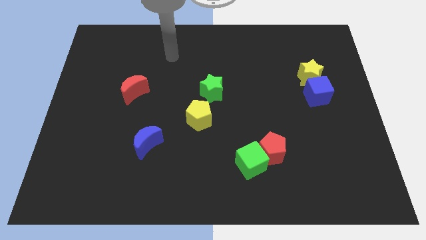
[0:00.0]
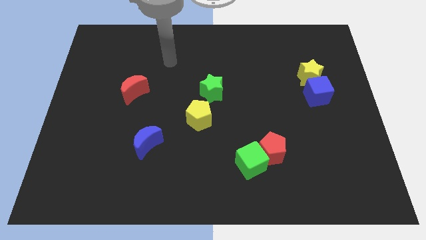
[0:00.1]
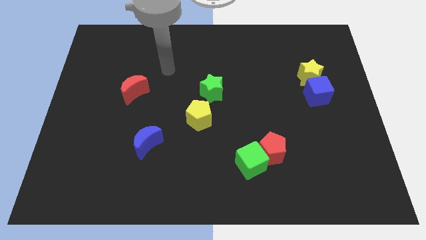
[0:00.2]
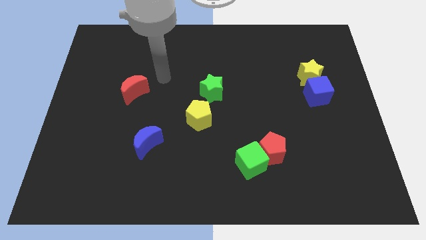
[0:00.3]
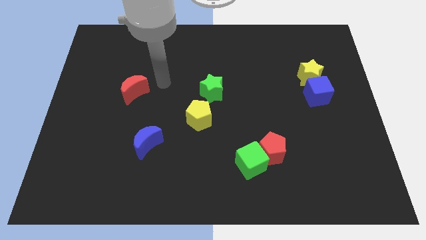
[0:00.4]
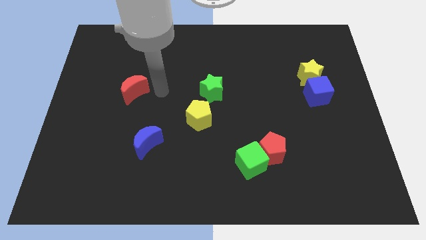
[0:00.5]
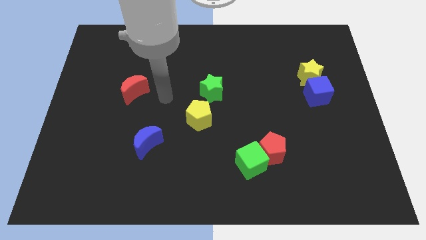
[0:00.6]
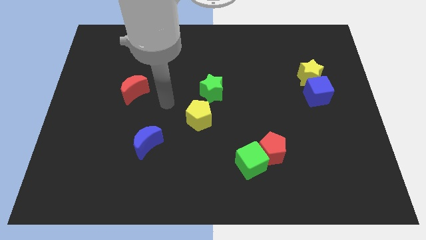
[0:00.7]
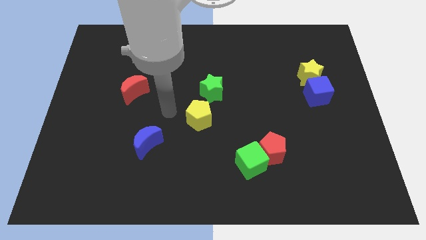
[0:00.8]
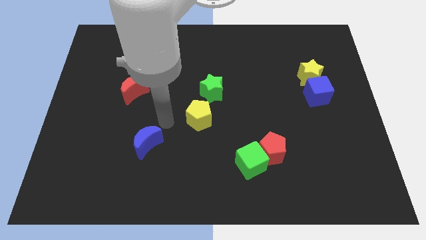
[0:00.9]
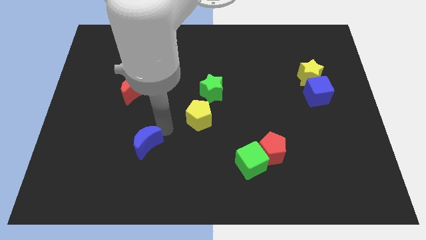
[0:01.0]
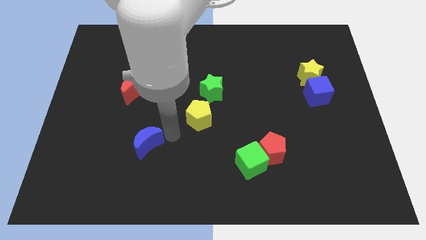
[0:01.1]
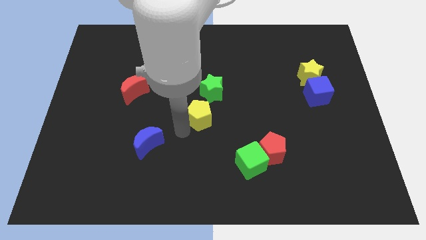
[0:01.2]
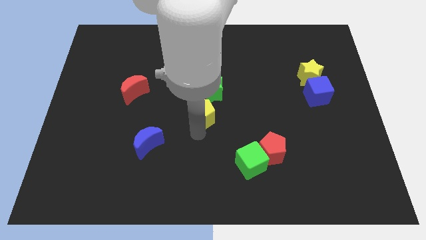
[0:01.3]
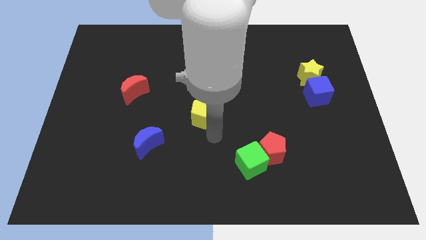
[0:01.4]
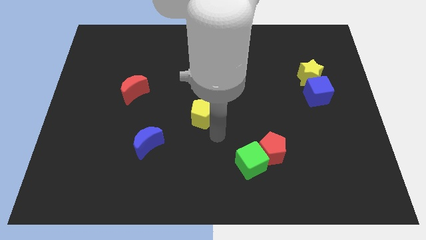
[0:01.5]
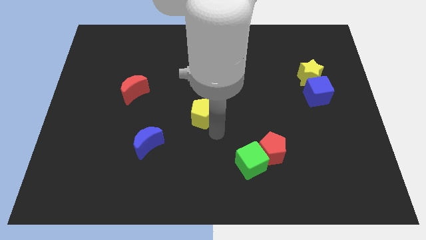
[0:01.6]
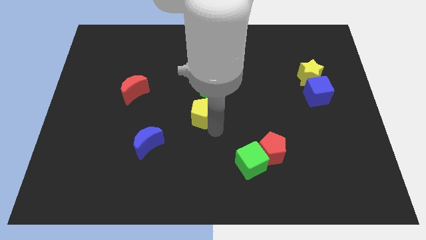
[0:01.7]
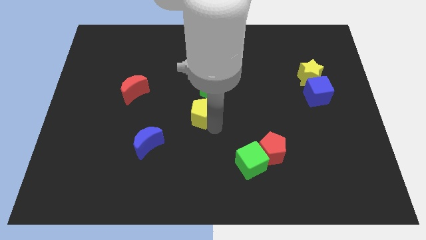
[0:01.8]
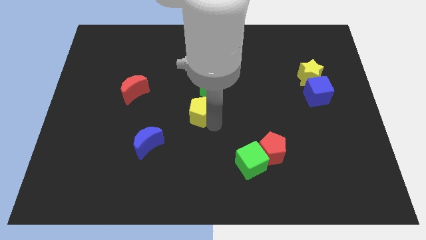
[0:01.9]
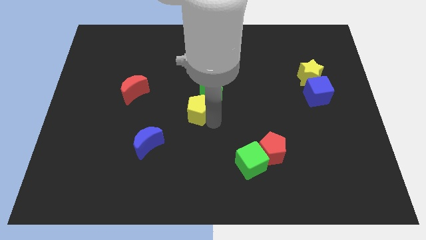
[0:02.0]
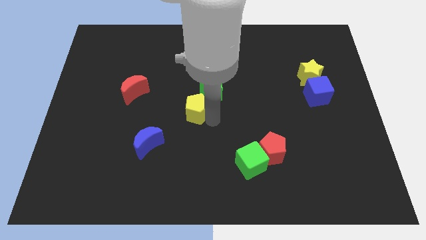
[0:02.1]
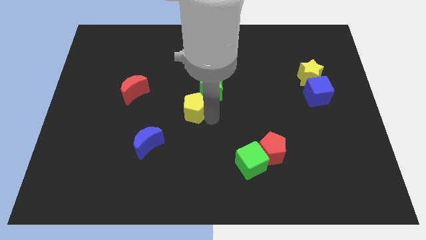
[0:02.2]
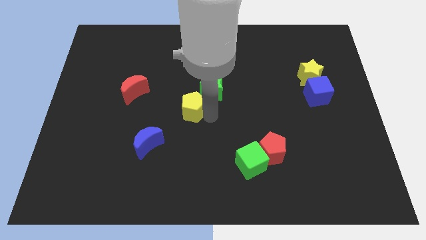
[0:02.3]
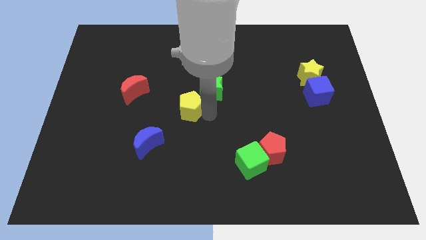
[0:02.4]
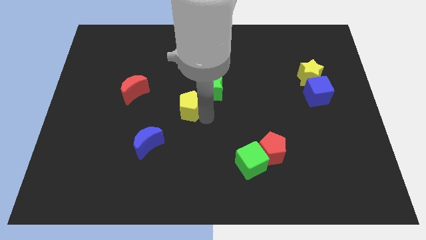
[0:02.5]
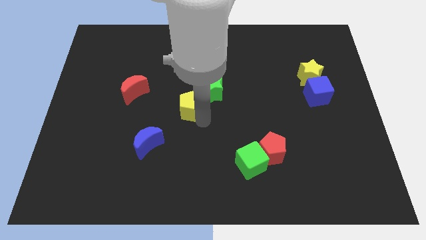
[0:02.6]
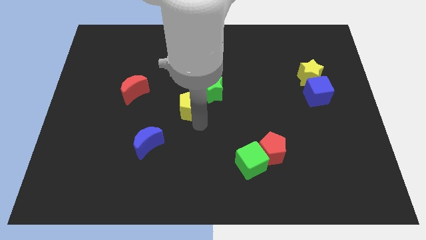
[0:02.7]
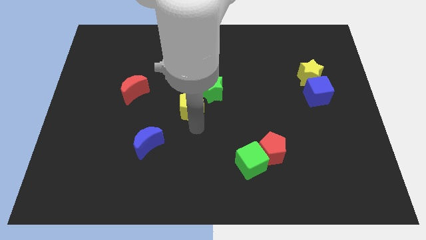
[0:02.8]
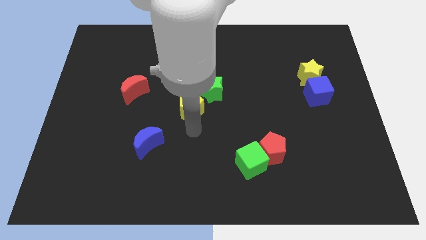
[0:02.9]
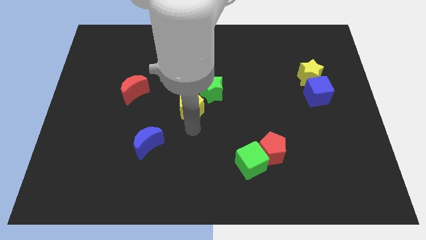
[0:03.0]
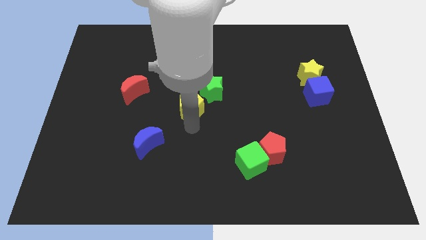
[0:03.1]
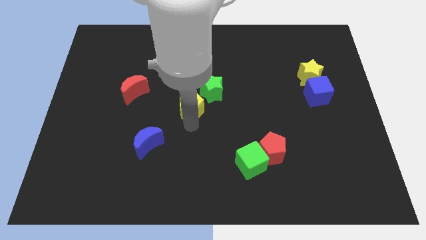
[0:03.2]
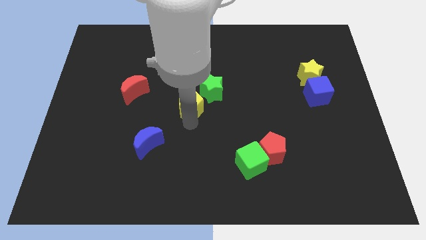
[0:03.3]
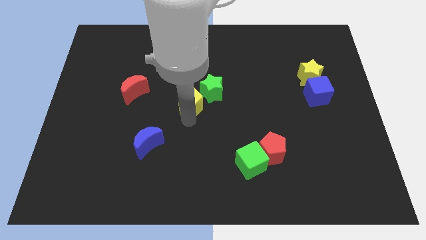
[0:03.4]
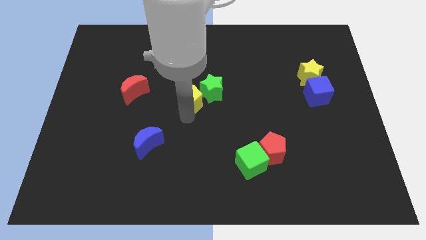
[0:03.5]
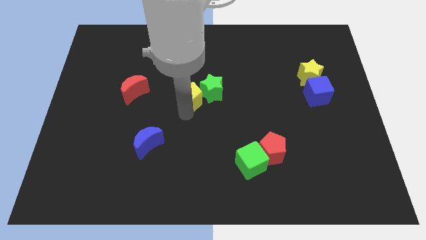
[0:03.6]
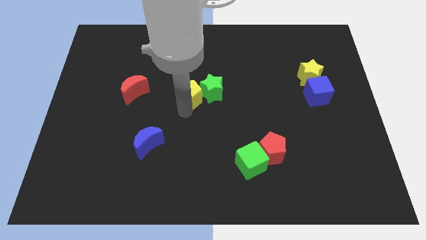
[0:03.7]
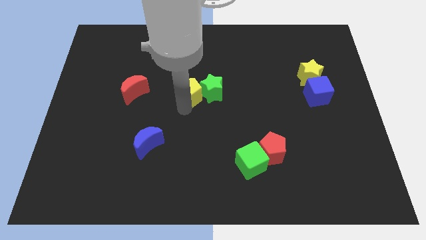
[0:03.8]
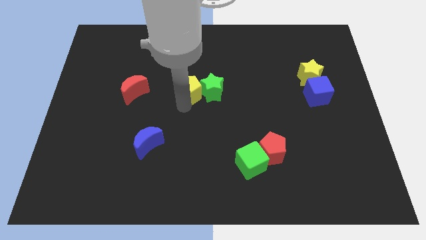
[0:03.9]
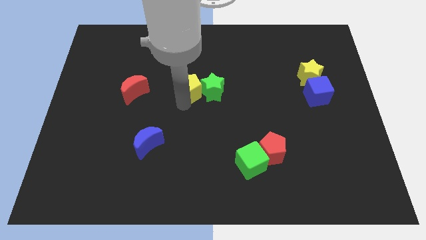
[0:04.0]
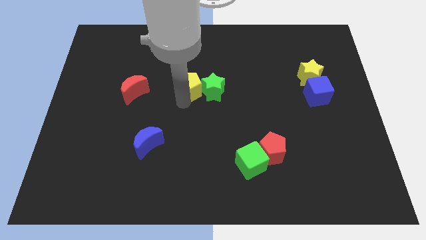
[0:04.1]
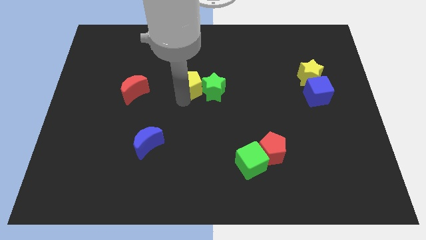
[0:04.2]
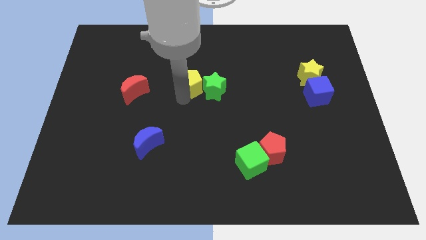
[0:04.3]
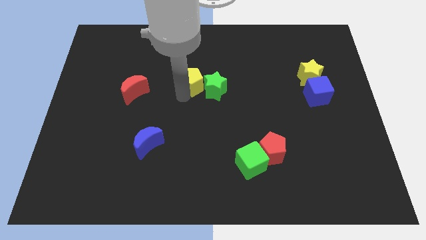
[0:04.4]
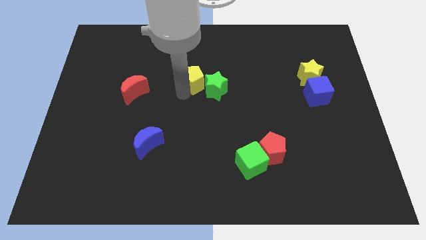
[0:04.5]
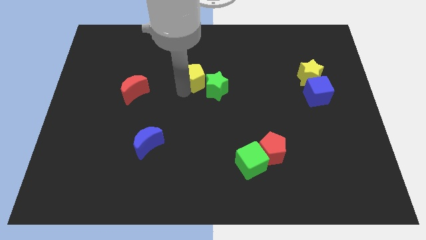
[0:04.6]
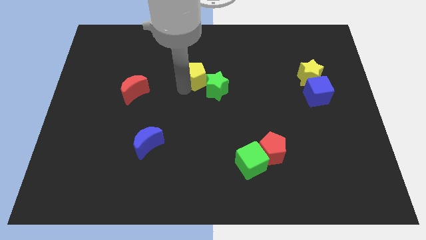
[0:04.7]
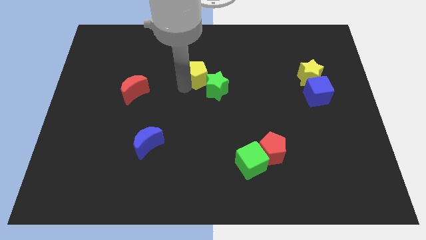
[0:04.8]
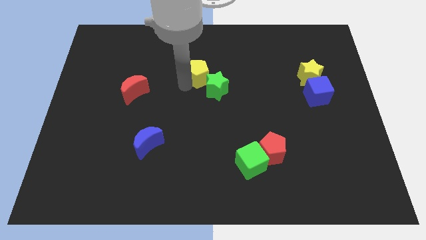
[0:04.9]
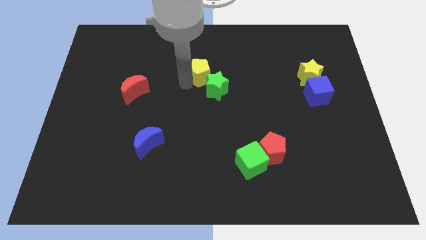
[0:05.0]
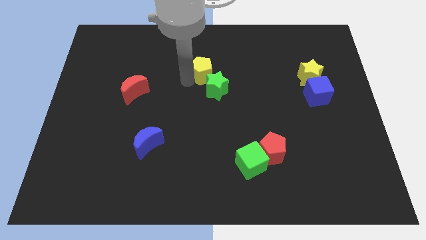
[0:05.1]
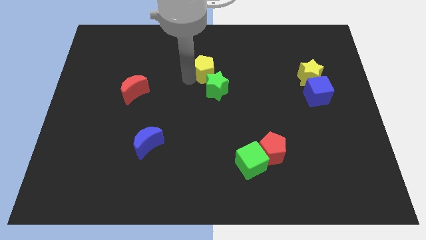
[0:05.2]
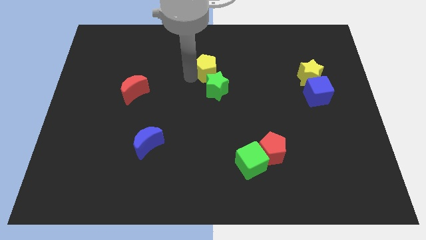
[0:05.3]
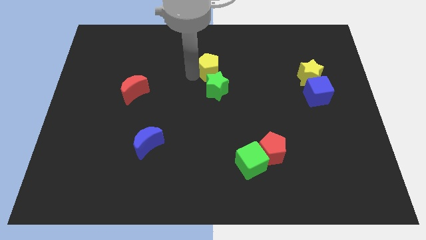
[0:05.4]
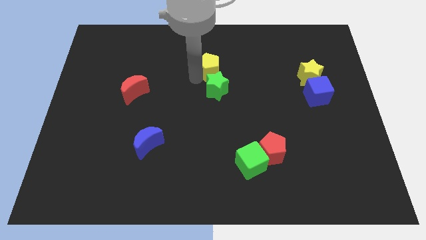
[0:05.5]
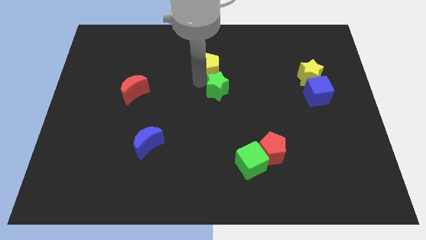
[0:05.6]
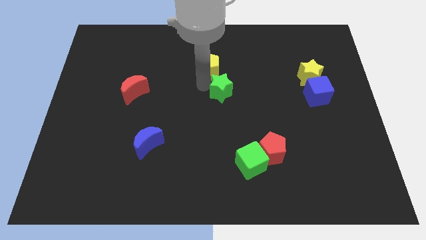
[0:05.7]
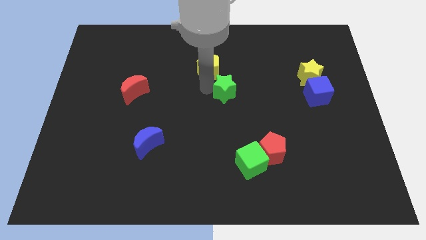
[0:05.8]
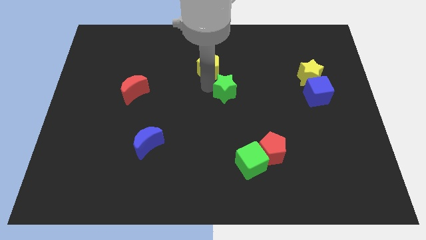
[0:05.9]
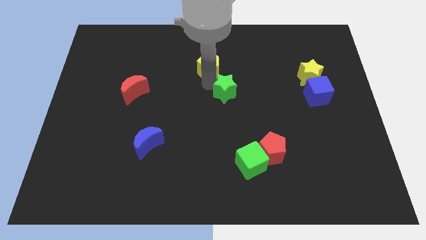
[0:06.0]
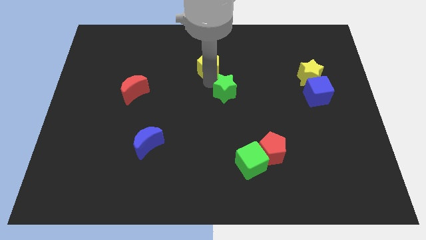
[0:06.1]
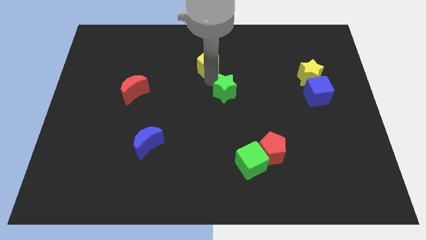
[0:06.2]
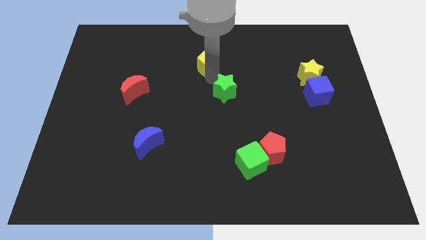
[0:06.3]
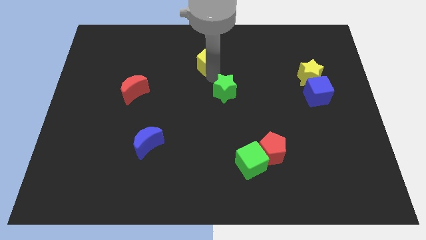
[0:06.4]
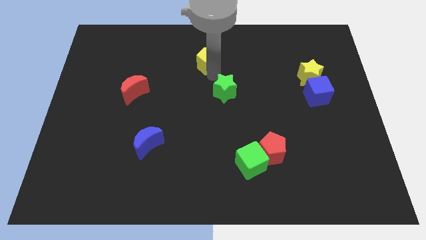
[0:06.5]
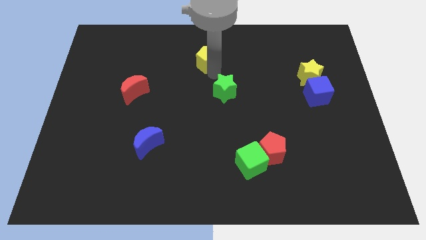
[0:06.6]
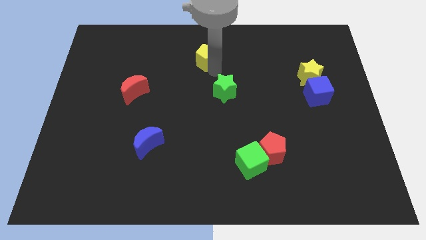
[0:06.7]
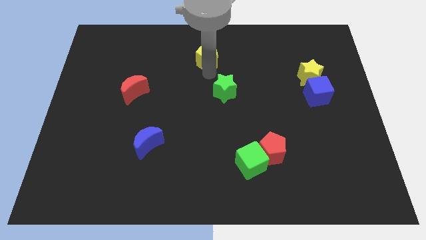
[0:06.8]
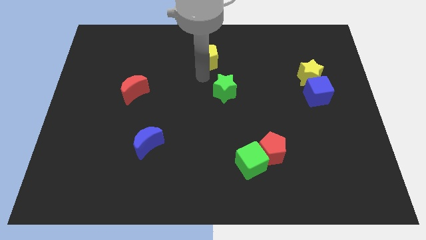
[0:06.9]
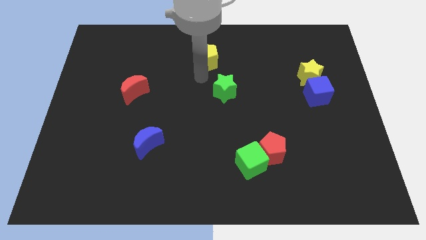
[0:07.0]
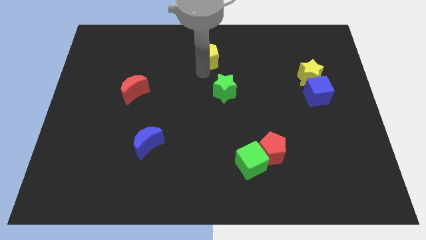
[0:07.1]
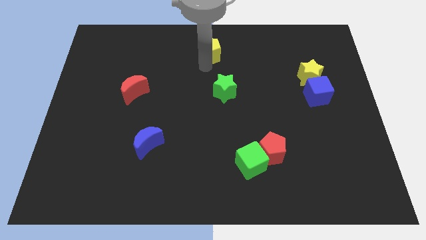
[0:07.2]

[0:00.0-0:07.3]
slide the yellow pentagon to the towards your base

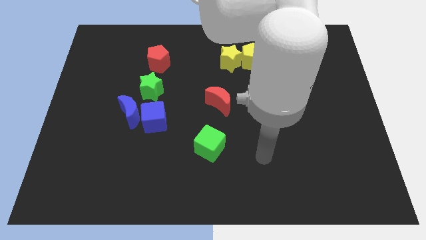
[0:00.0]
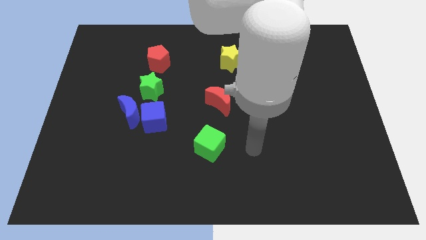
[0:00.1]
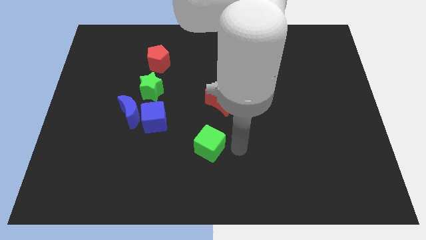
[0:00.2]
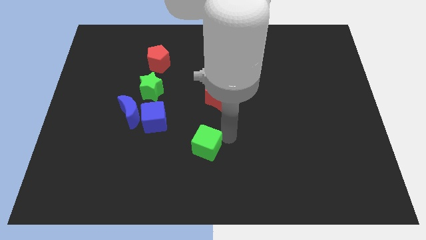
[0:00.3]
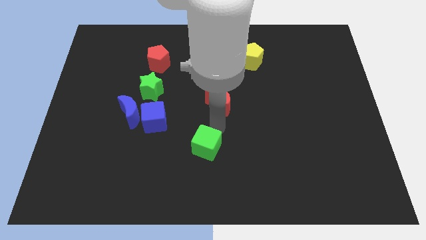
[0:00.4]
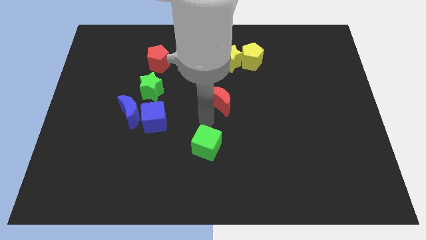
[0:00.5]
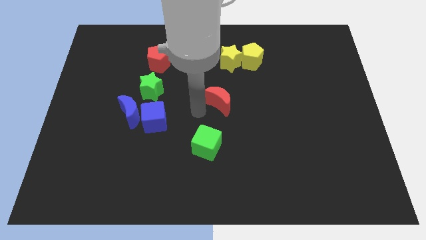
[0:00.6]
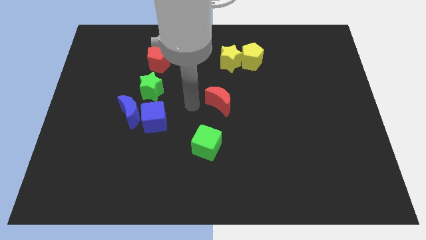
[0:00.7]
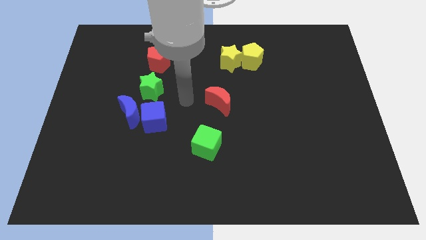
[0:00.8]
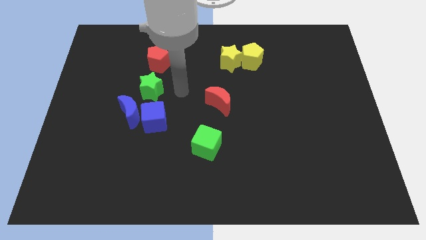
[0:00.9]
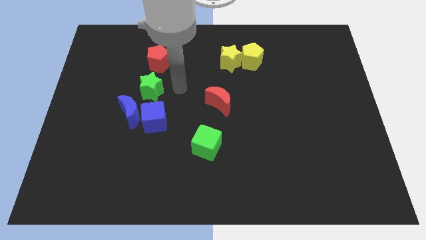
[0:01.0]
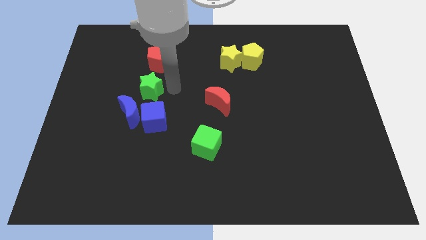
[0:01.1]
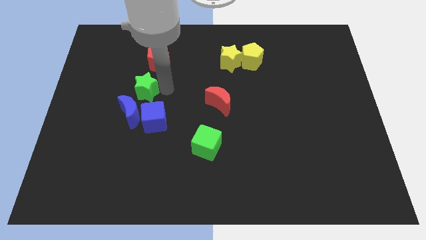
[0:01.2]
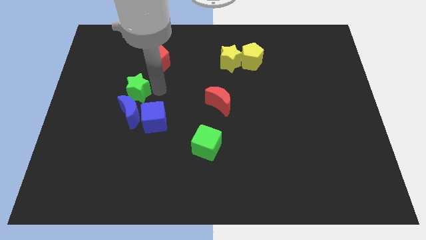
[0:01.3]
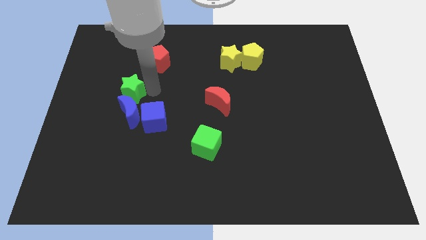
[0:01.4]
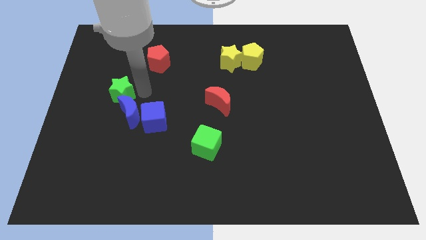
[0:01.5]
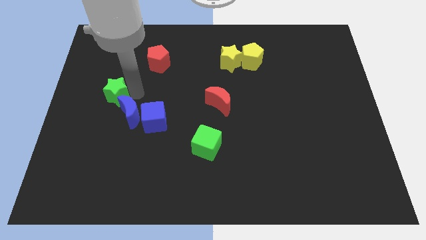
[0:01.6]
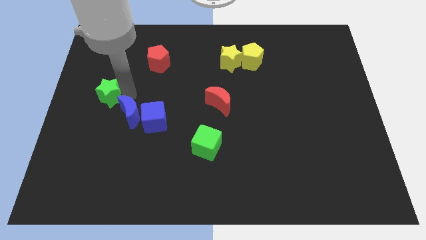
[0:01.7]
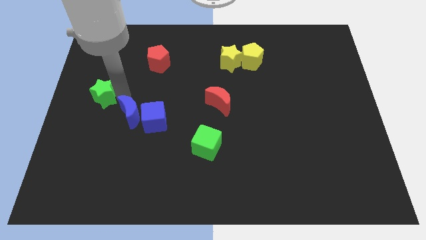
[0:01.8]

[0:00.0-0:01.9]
move the green star to the left side of the board
